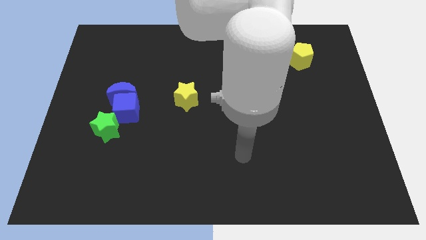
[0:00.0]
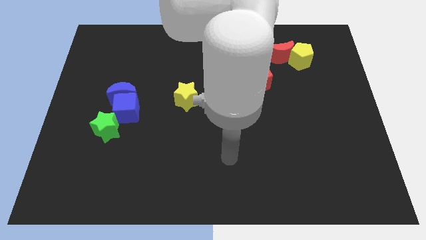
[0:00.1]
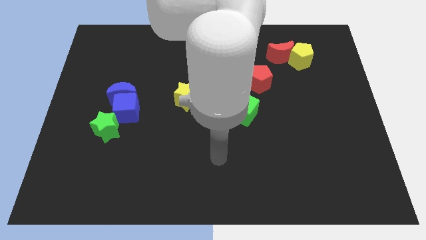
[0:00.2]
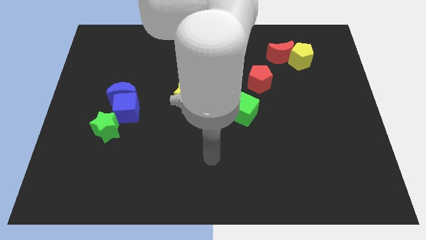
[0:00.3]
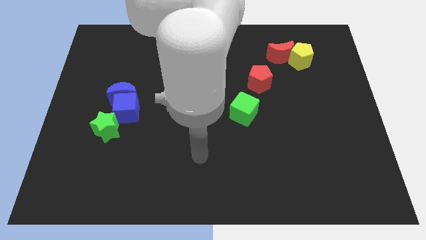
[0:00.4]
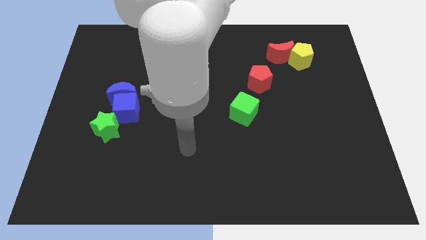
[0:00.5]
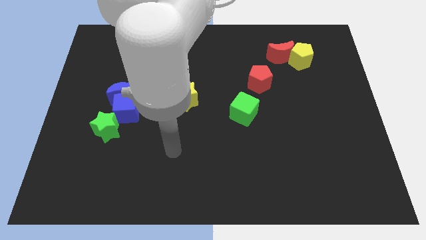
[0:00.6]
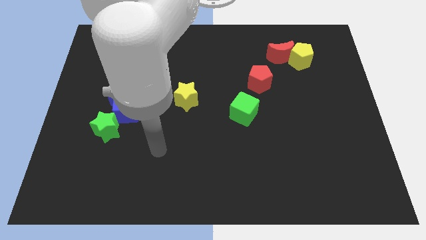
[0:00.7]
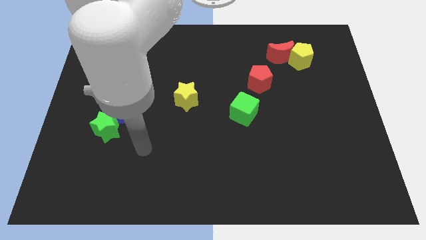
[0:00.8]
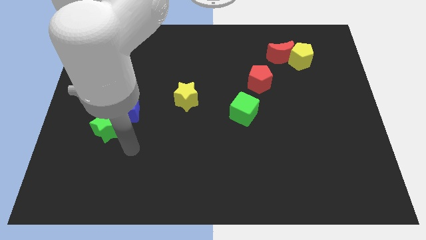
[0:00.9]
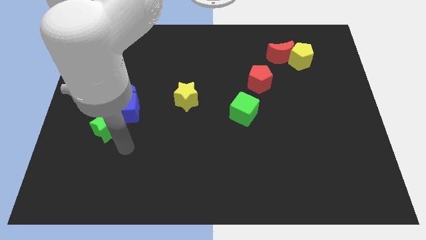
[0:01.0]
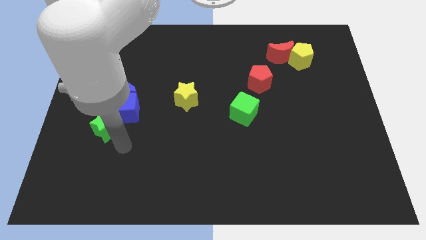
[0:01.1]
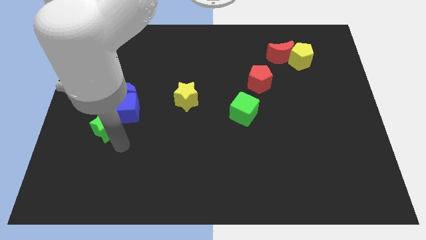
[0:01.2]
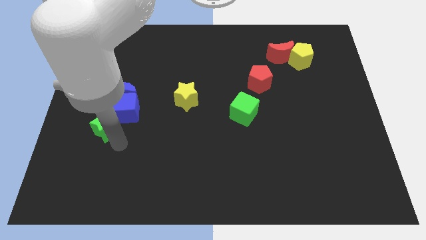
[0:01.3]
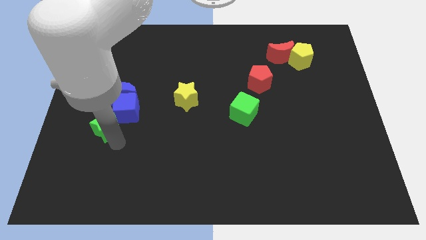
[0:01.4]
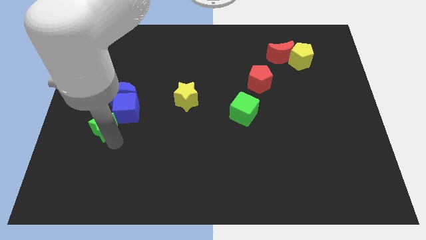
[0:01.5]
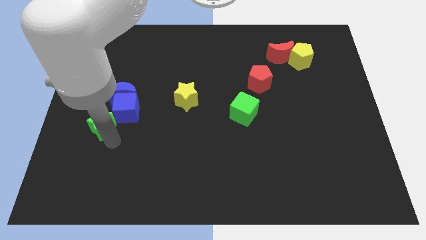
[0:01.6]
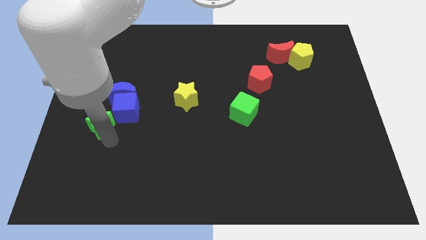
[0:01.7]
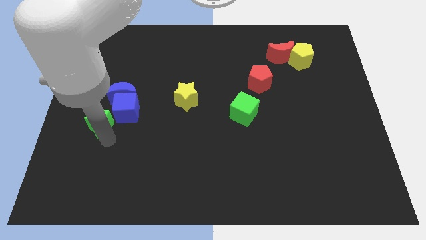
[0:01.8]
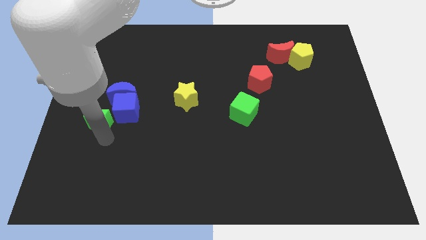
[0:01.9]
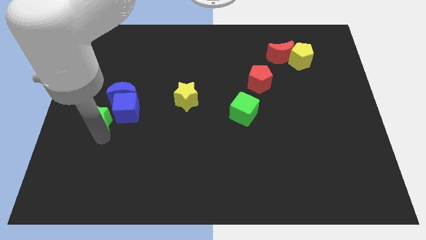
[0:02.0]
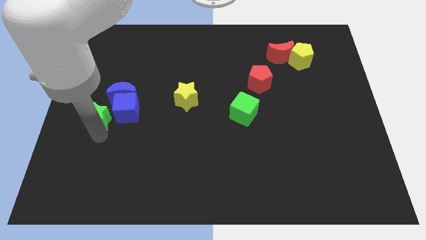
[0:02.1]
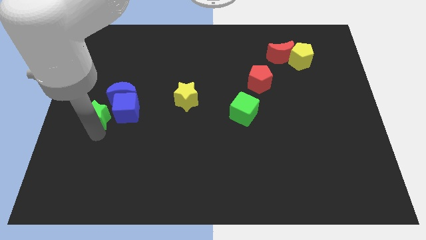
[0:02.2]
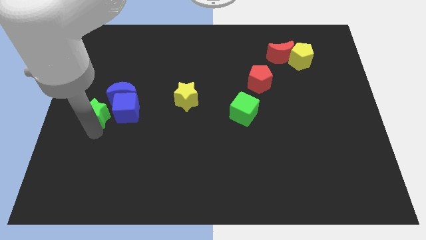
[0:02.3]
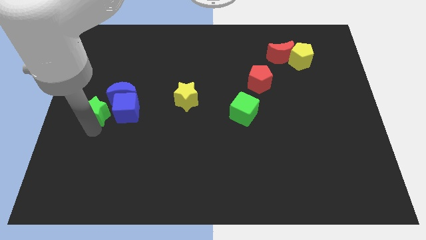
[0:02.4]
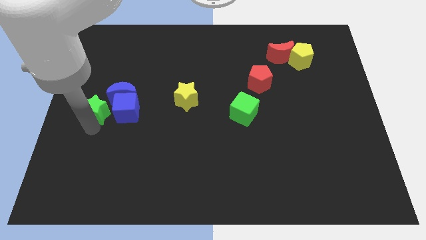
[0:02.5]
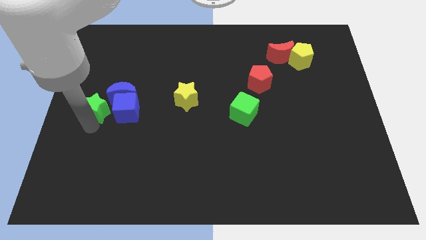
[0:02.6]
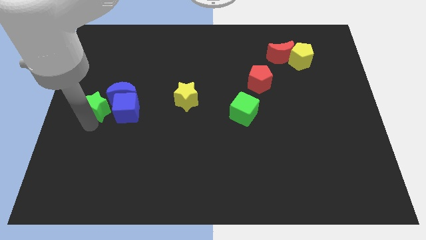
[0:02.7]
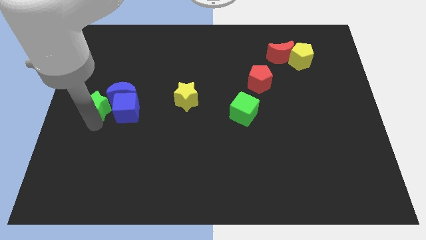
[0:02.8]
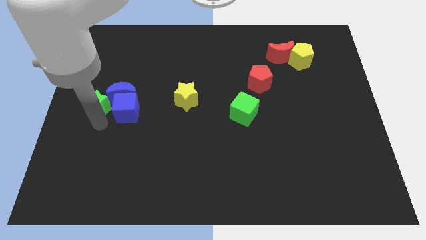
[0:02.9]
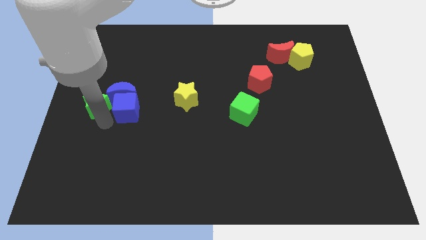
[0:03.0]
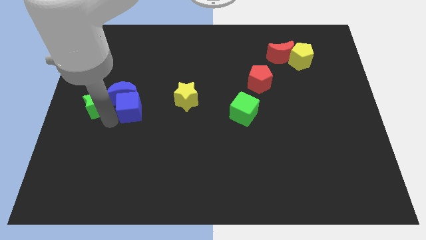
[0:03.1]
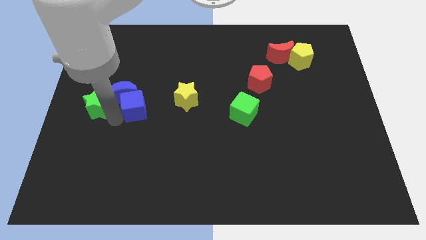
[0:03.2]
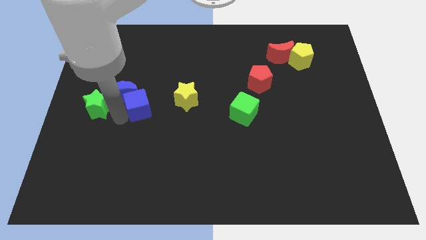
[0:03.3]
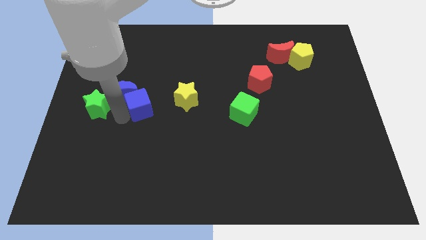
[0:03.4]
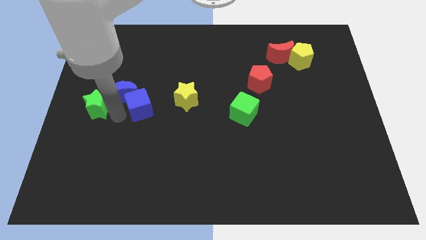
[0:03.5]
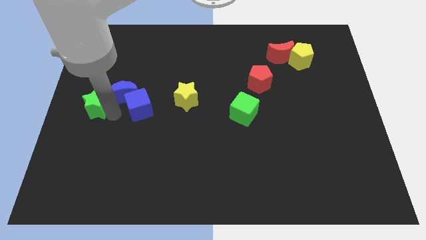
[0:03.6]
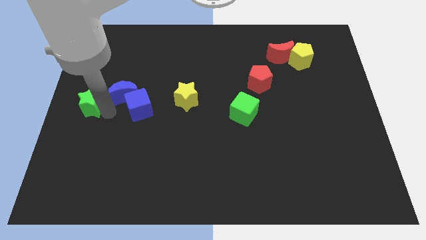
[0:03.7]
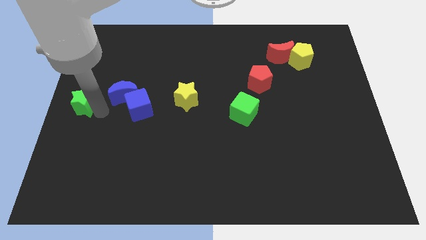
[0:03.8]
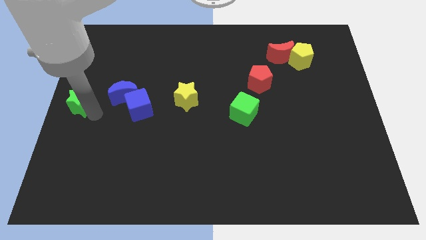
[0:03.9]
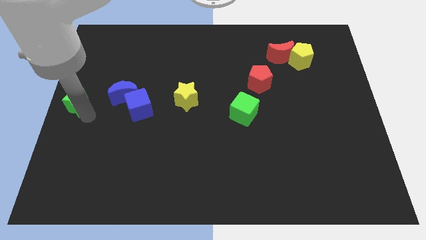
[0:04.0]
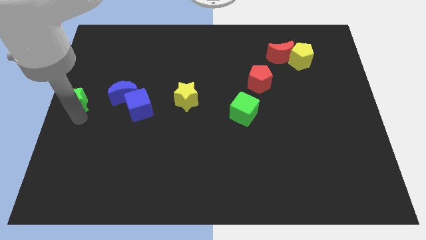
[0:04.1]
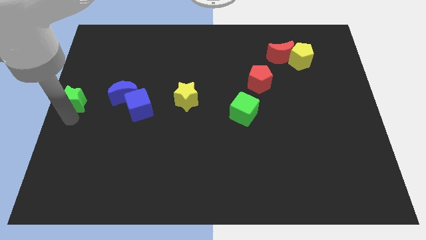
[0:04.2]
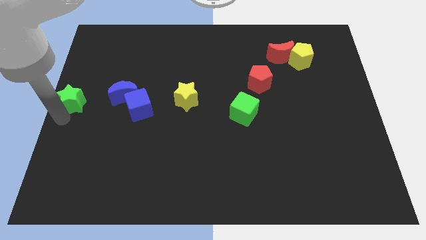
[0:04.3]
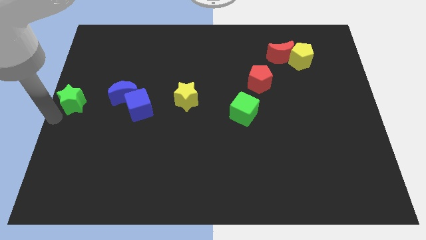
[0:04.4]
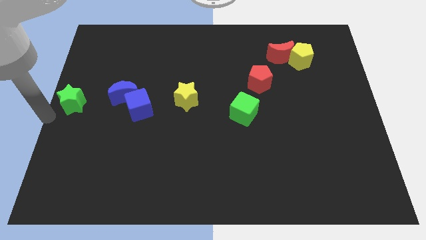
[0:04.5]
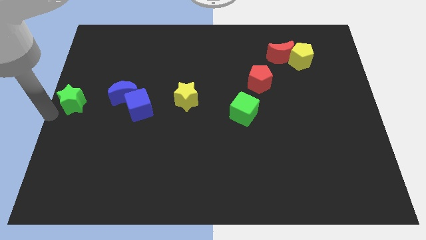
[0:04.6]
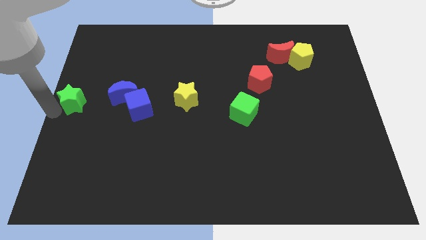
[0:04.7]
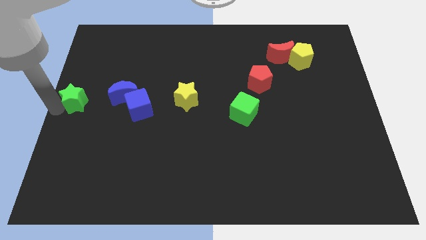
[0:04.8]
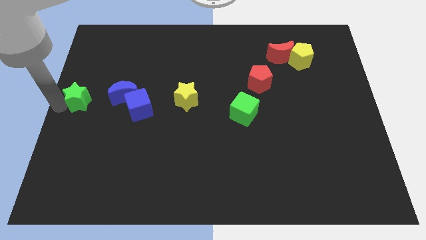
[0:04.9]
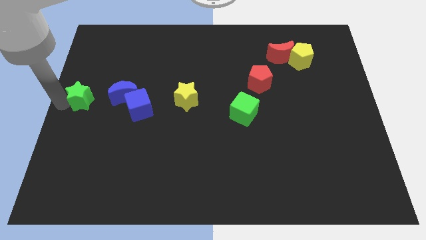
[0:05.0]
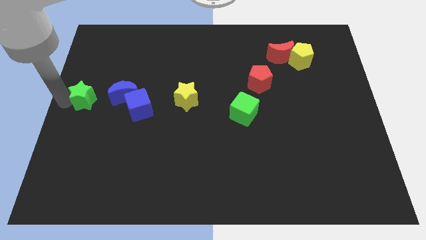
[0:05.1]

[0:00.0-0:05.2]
move the green star up a little

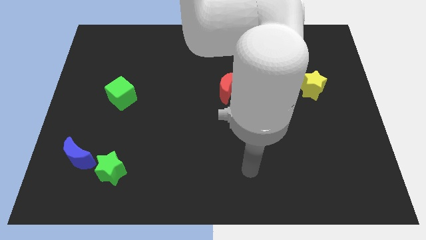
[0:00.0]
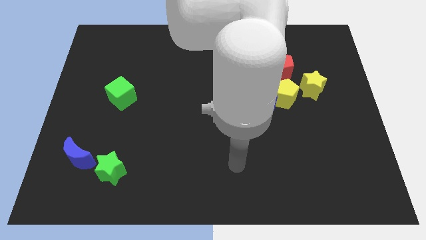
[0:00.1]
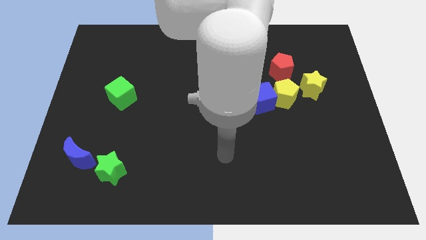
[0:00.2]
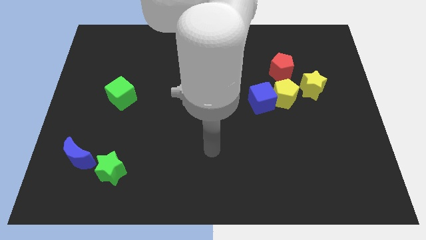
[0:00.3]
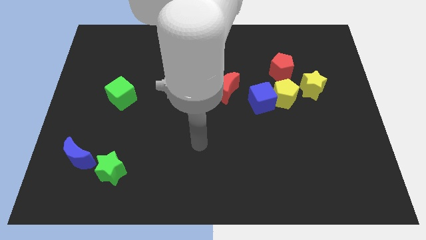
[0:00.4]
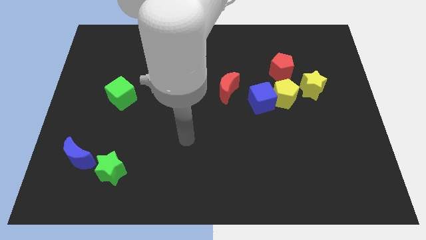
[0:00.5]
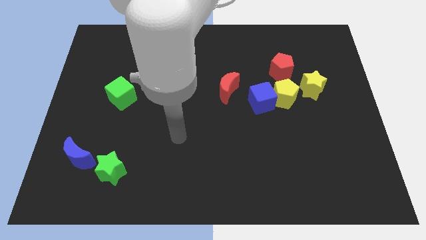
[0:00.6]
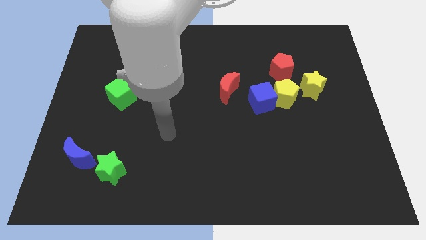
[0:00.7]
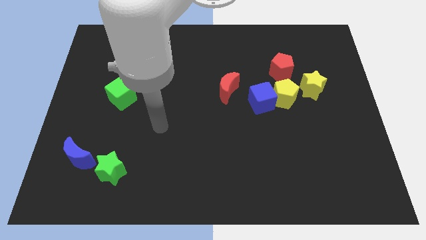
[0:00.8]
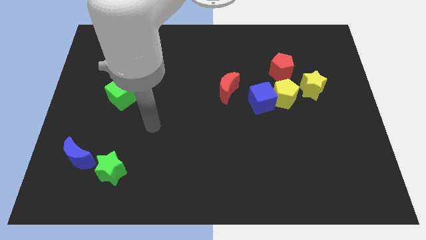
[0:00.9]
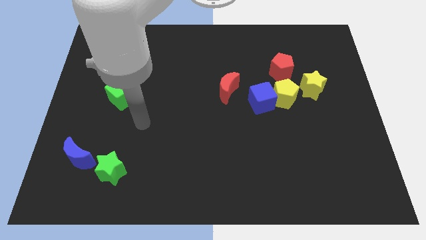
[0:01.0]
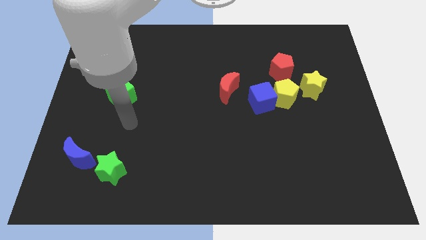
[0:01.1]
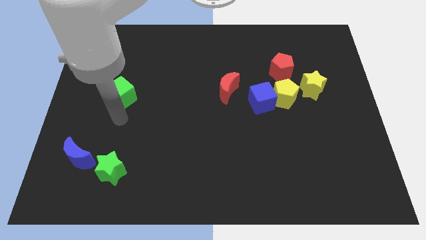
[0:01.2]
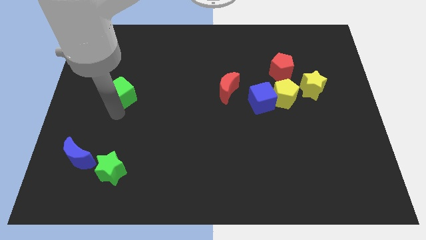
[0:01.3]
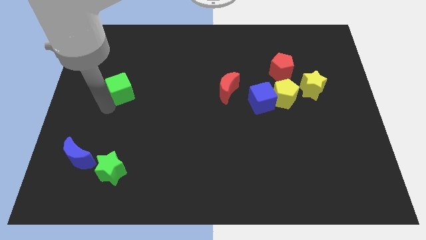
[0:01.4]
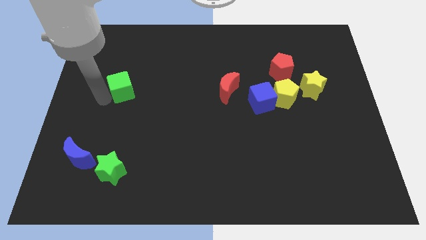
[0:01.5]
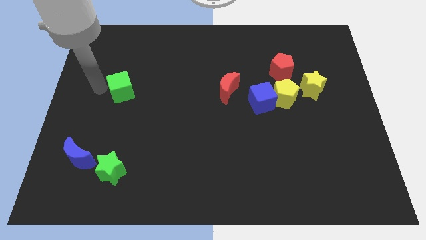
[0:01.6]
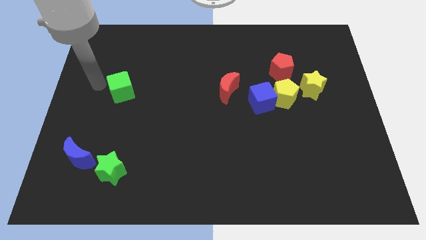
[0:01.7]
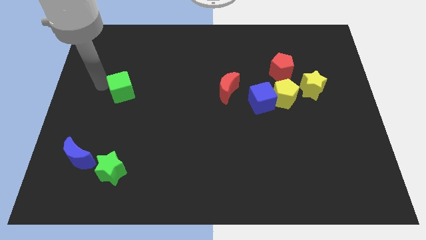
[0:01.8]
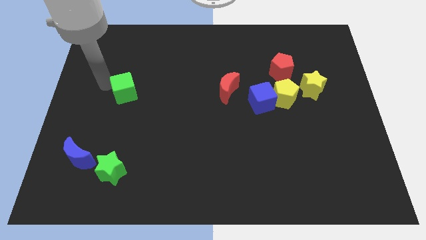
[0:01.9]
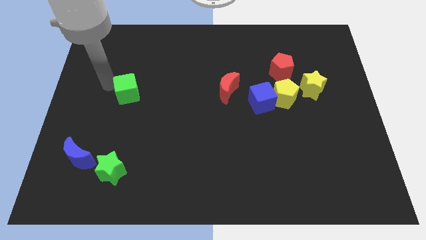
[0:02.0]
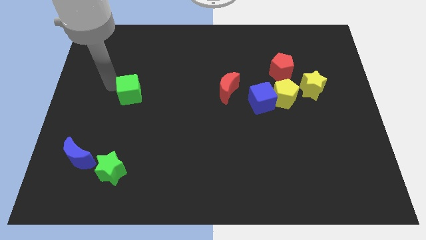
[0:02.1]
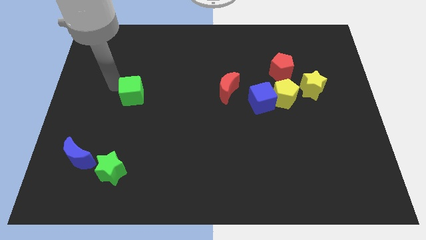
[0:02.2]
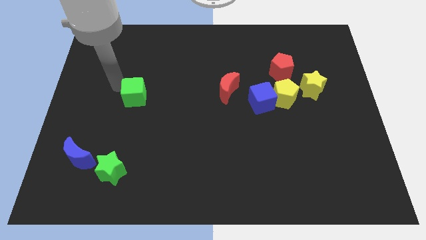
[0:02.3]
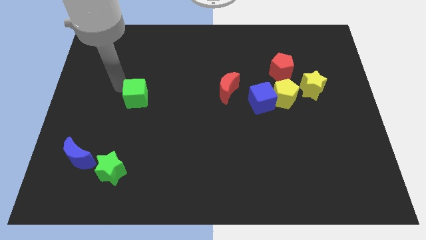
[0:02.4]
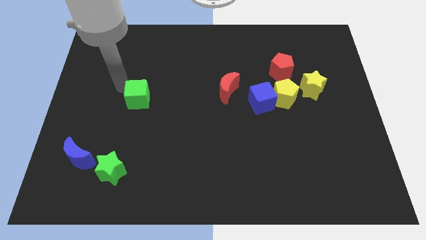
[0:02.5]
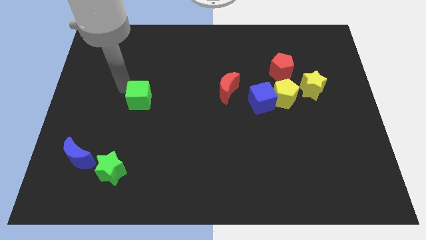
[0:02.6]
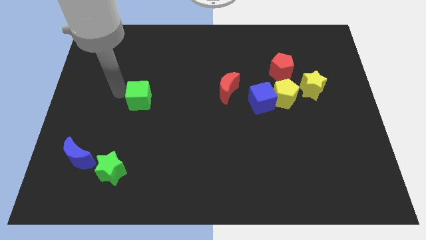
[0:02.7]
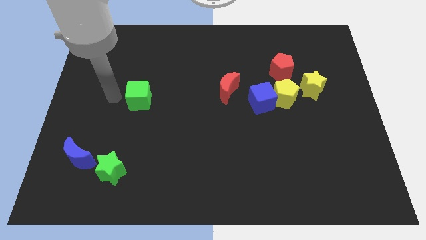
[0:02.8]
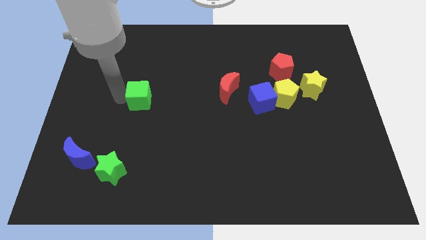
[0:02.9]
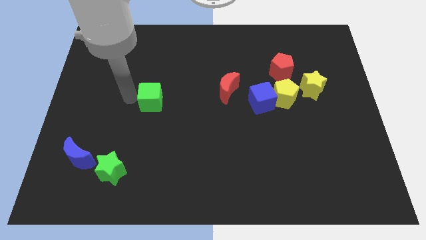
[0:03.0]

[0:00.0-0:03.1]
move the green cube right a little

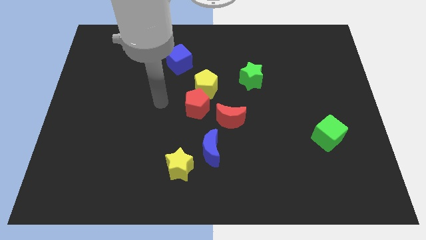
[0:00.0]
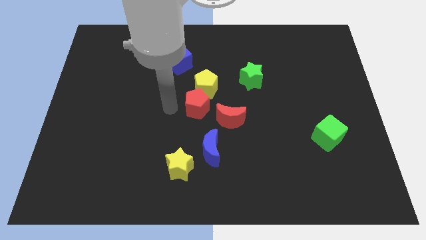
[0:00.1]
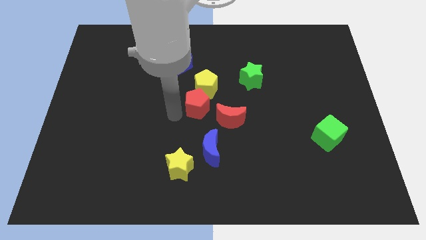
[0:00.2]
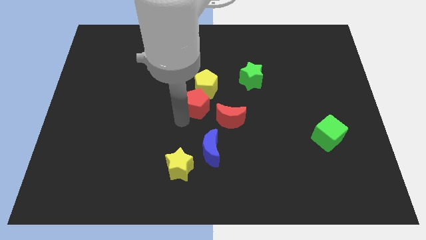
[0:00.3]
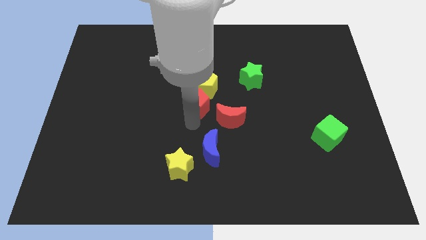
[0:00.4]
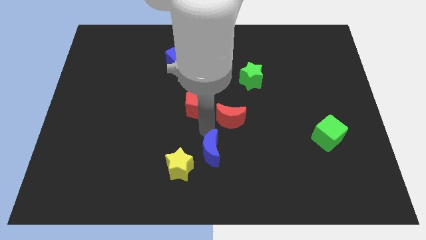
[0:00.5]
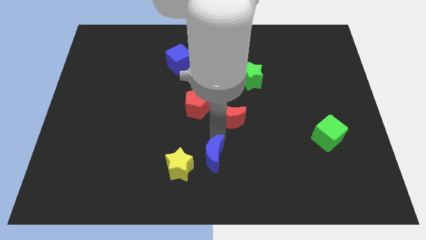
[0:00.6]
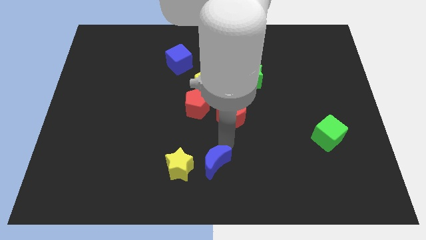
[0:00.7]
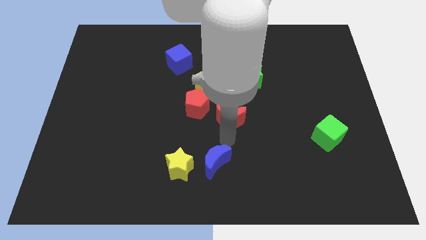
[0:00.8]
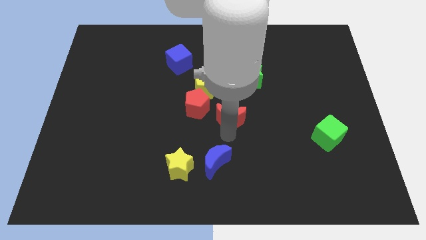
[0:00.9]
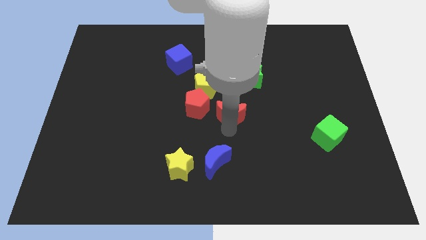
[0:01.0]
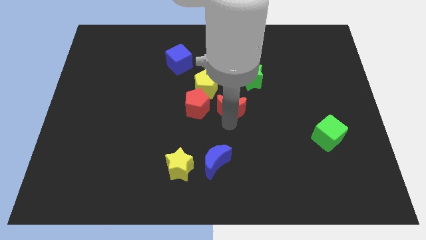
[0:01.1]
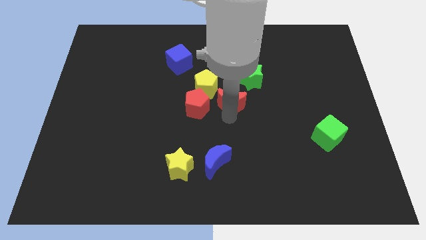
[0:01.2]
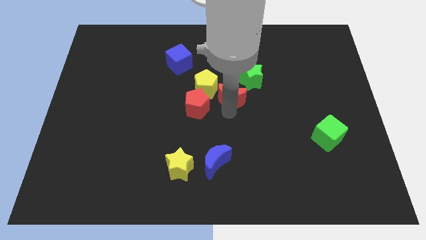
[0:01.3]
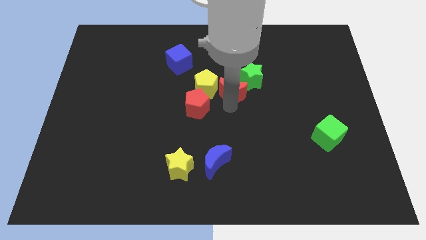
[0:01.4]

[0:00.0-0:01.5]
push the red moon up a bit
